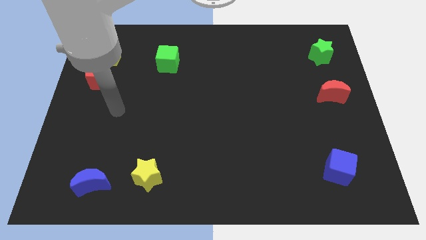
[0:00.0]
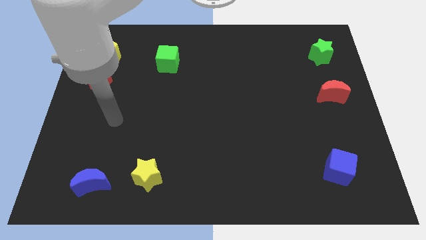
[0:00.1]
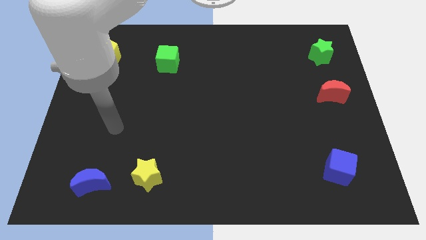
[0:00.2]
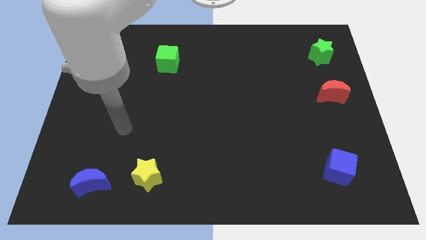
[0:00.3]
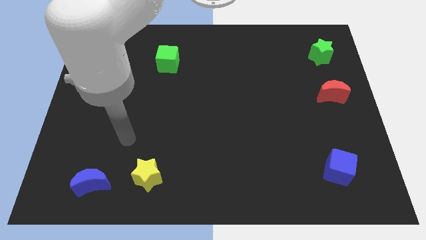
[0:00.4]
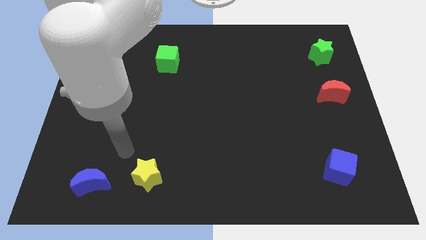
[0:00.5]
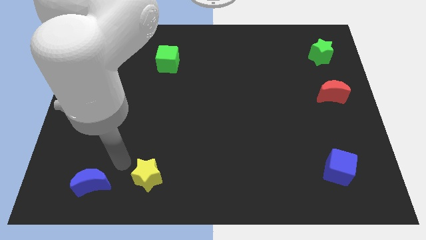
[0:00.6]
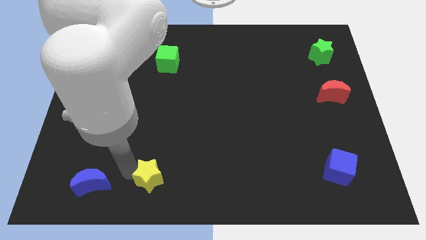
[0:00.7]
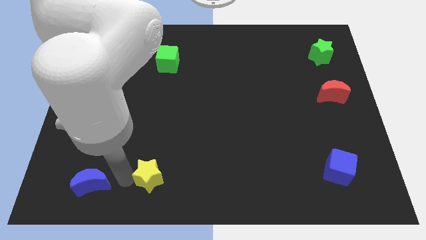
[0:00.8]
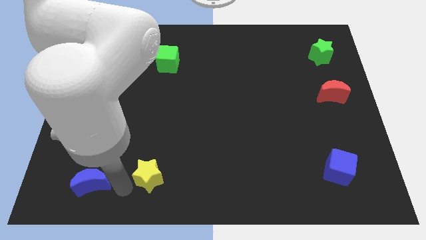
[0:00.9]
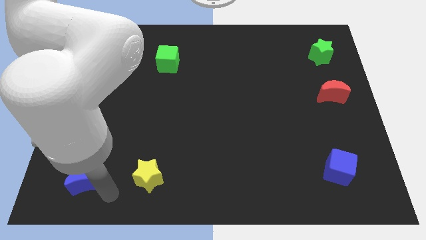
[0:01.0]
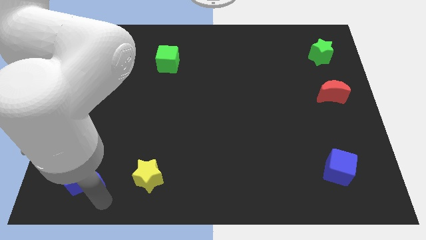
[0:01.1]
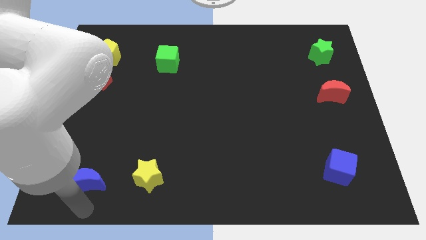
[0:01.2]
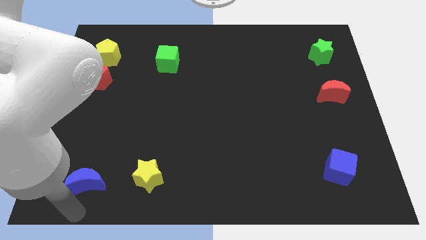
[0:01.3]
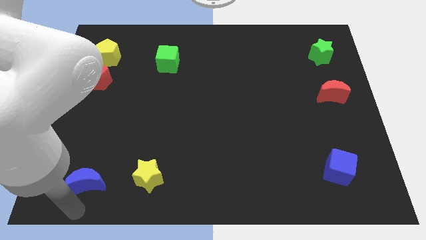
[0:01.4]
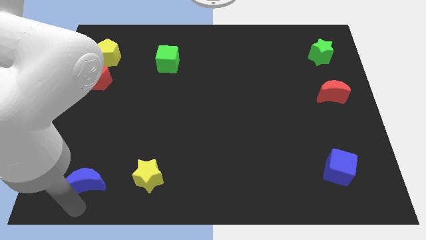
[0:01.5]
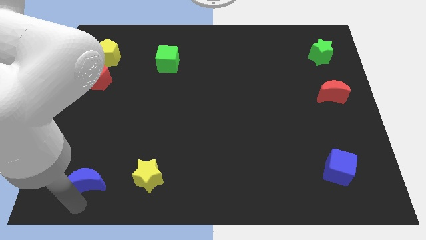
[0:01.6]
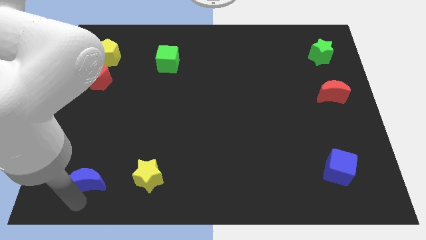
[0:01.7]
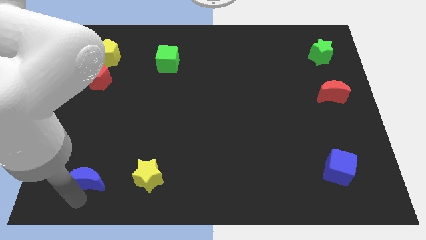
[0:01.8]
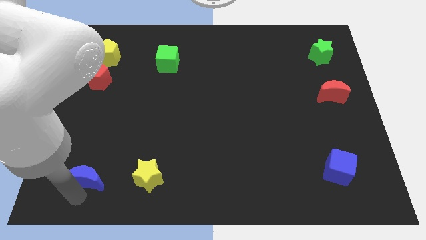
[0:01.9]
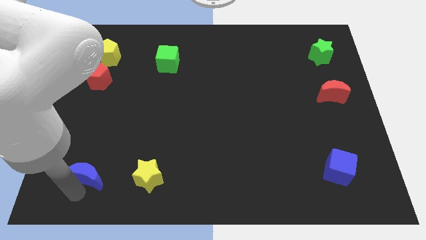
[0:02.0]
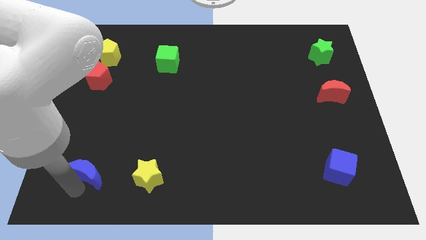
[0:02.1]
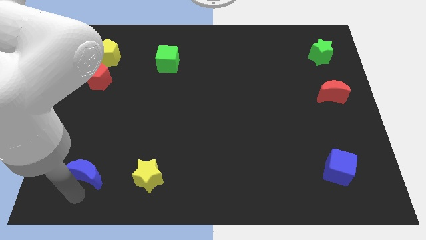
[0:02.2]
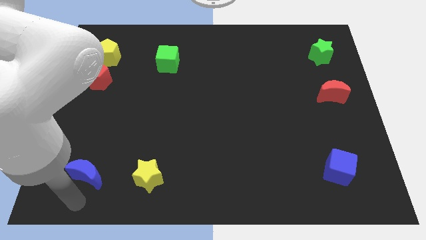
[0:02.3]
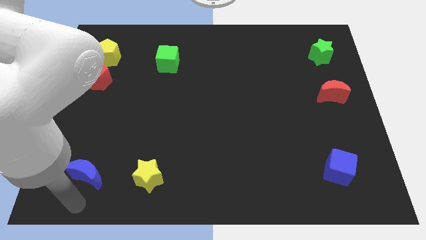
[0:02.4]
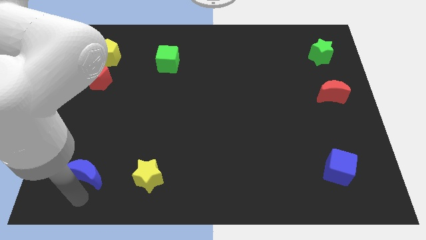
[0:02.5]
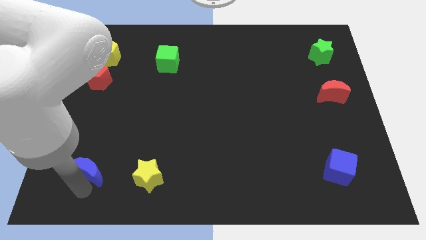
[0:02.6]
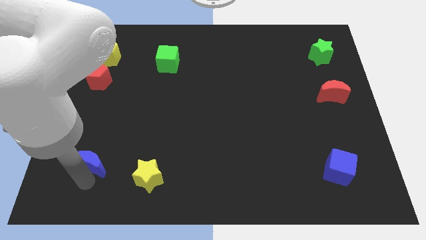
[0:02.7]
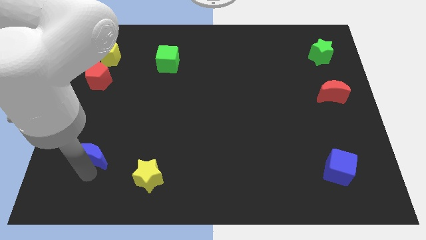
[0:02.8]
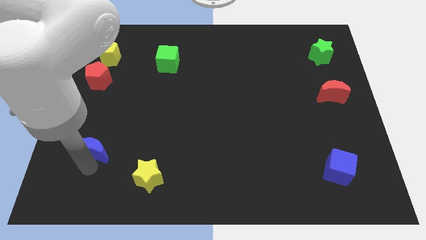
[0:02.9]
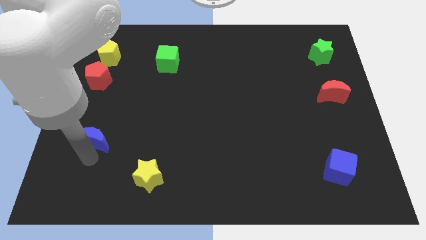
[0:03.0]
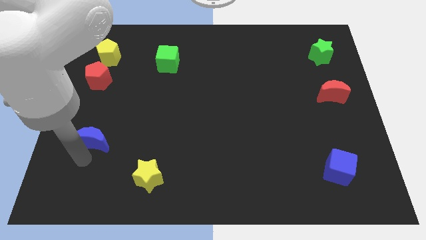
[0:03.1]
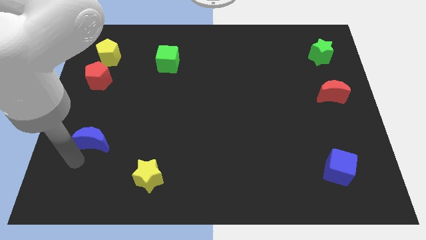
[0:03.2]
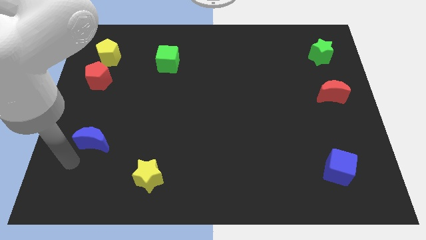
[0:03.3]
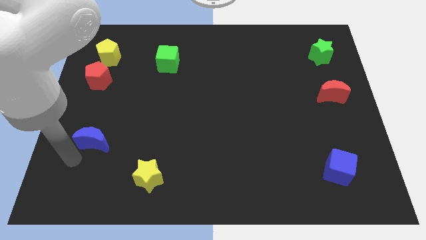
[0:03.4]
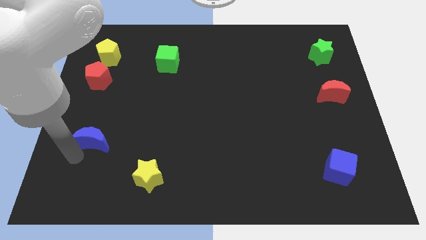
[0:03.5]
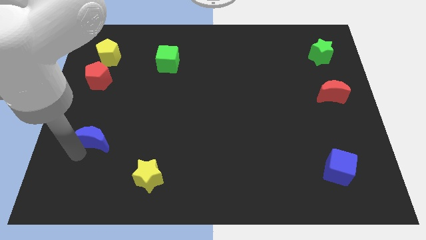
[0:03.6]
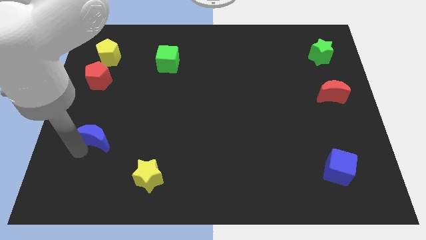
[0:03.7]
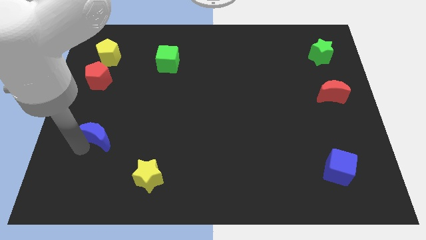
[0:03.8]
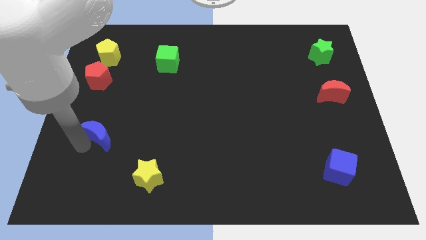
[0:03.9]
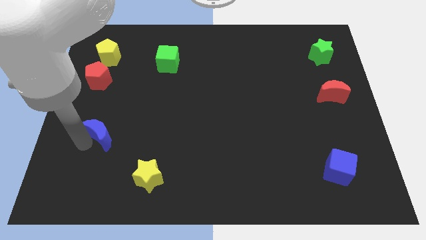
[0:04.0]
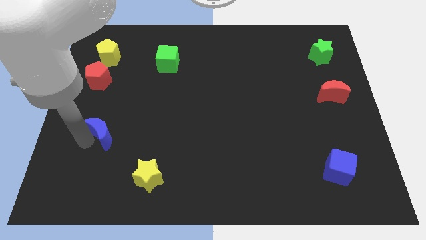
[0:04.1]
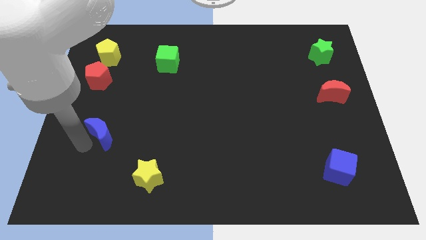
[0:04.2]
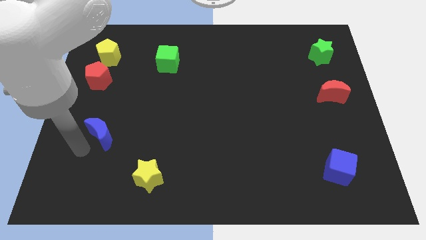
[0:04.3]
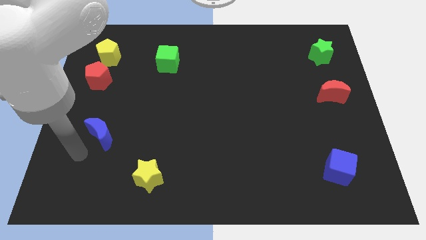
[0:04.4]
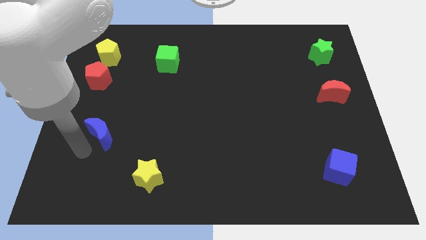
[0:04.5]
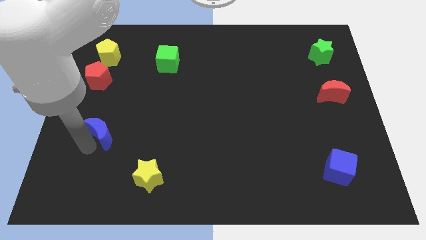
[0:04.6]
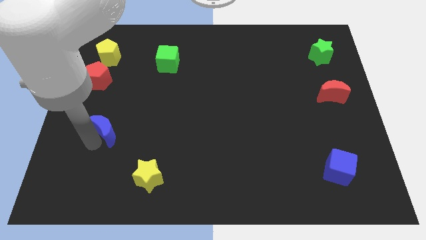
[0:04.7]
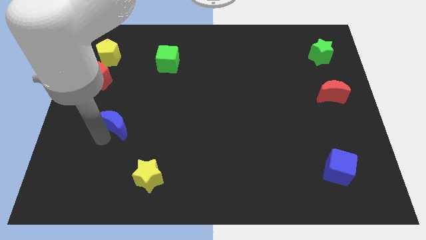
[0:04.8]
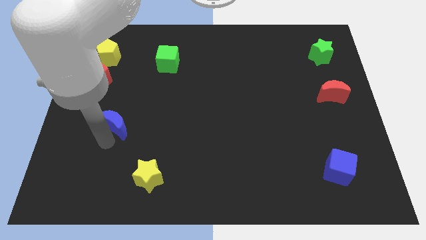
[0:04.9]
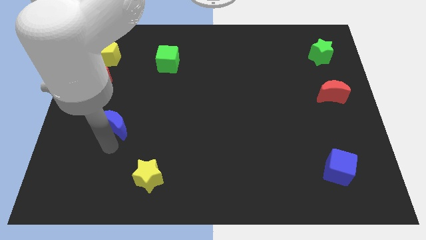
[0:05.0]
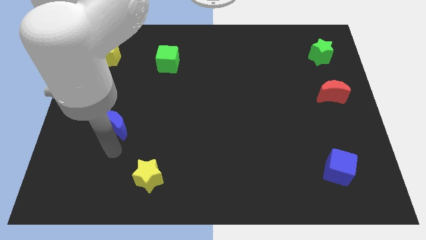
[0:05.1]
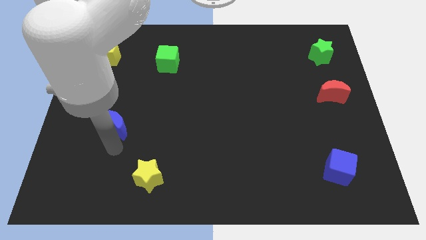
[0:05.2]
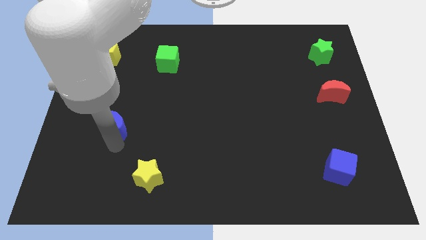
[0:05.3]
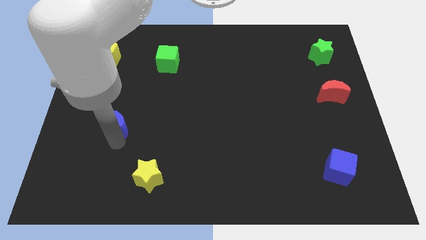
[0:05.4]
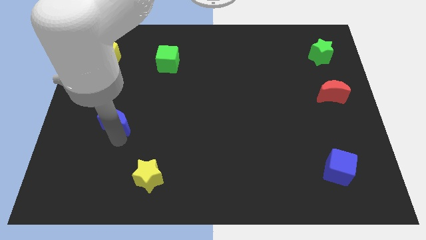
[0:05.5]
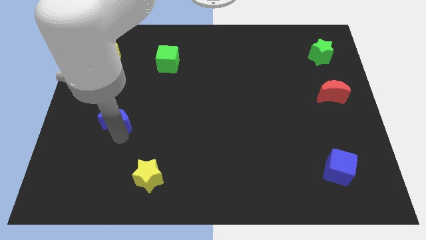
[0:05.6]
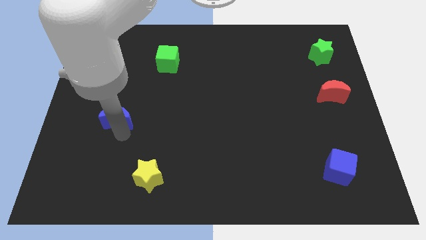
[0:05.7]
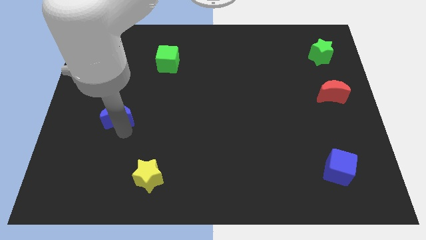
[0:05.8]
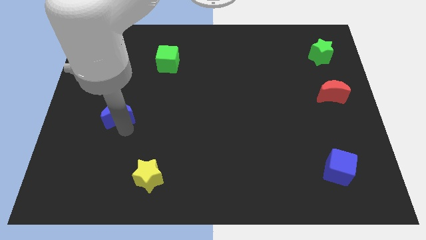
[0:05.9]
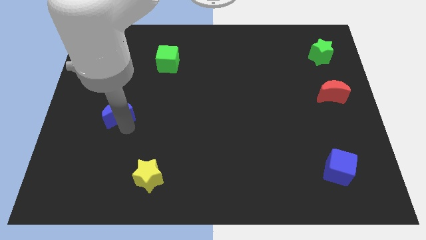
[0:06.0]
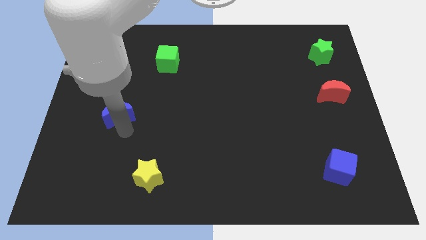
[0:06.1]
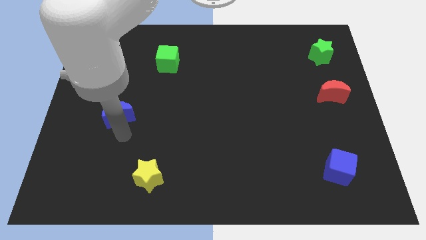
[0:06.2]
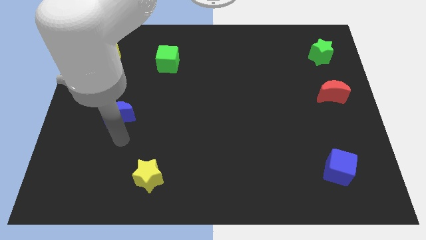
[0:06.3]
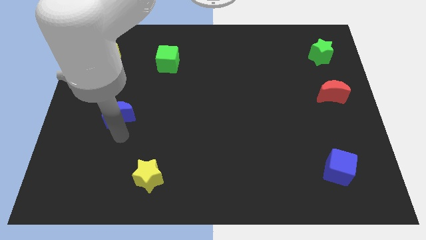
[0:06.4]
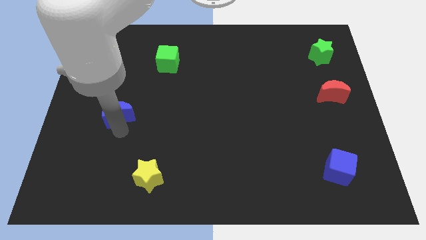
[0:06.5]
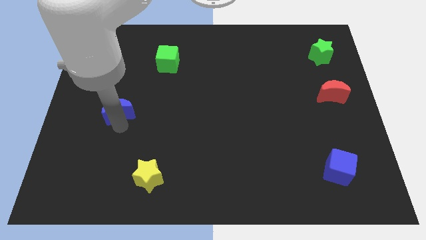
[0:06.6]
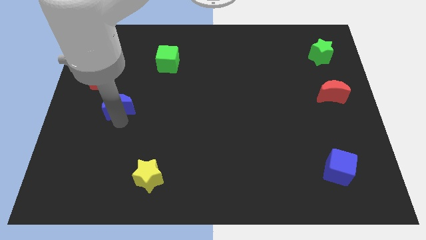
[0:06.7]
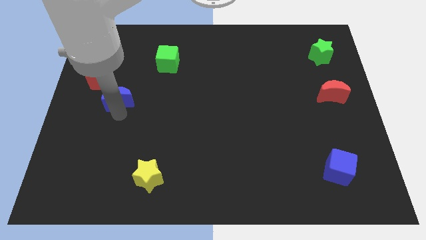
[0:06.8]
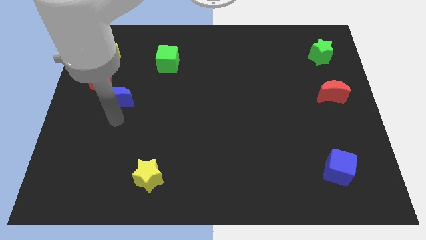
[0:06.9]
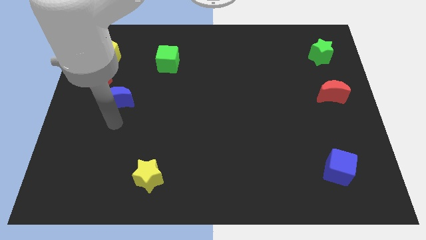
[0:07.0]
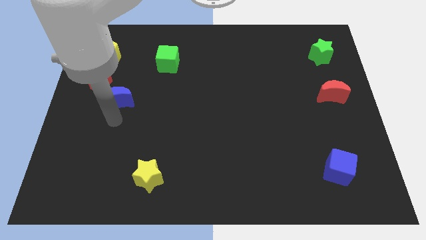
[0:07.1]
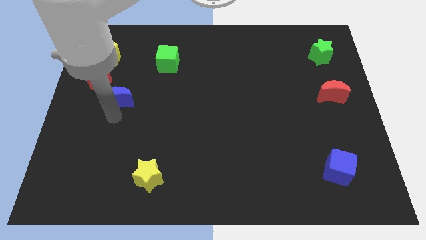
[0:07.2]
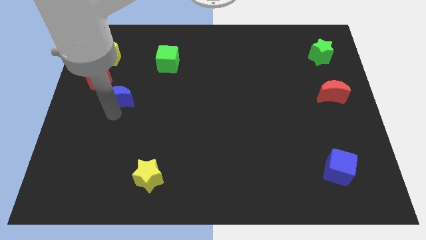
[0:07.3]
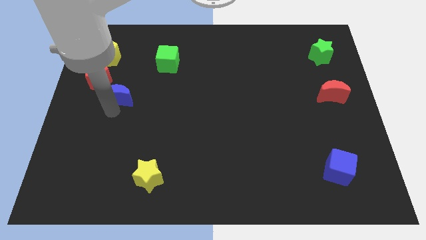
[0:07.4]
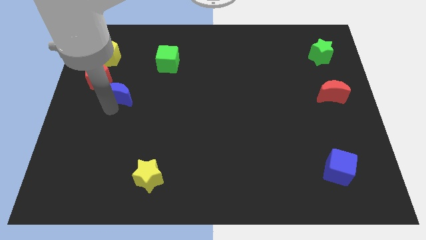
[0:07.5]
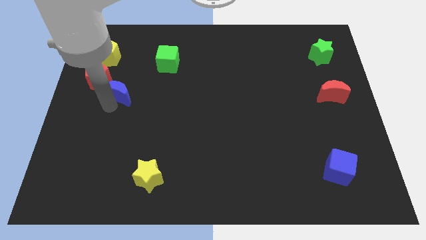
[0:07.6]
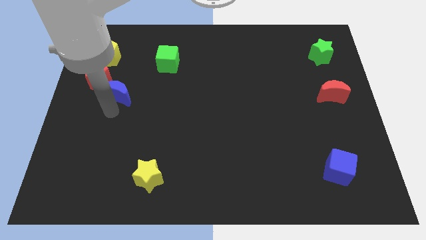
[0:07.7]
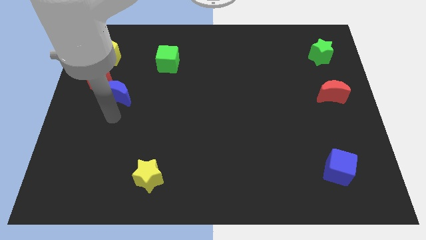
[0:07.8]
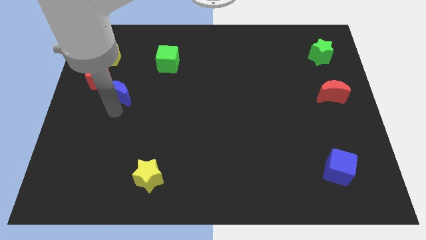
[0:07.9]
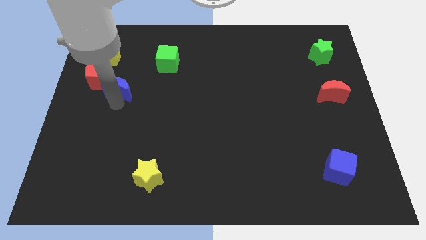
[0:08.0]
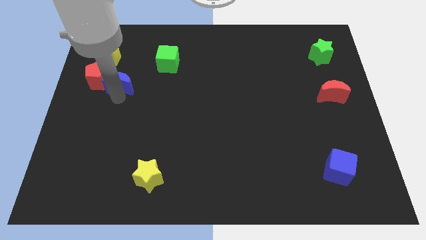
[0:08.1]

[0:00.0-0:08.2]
move the blue moon to the bottom right side of the yellow pentagon

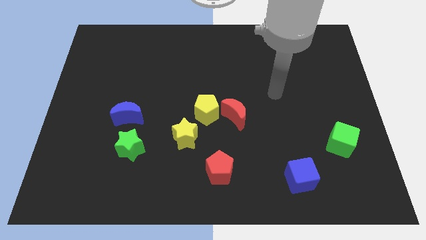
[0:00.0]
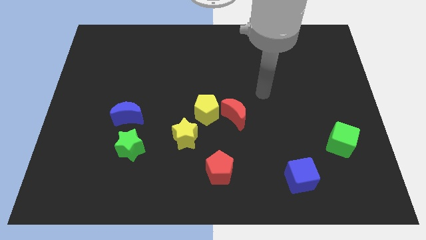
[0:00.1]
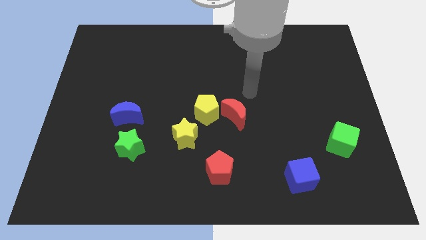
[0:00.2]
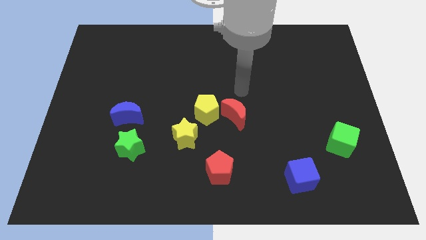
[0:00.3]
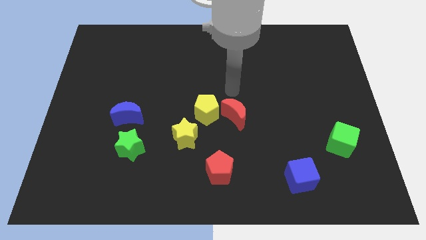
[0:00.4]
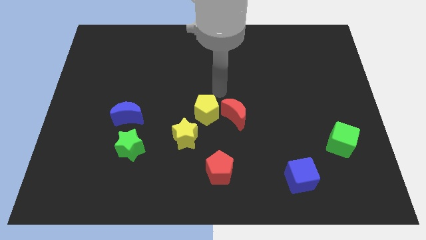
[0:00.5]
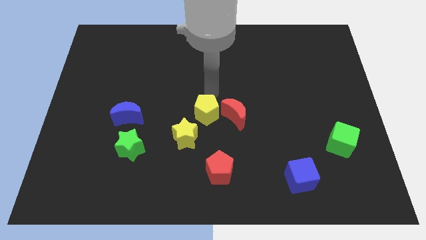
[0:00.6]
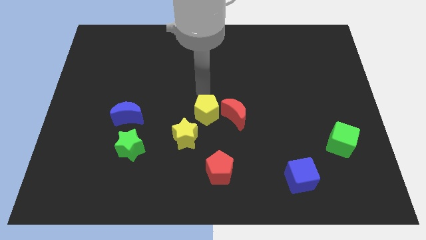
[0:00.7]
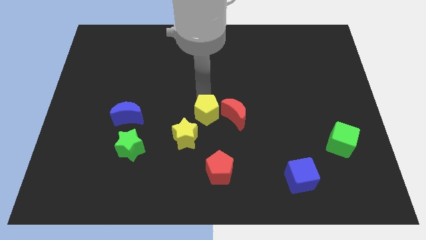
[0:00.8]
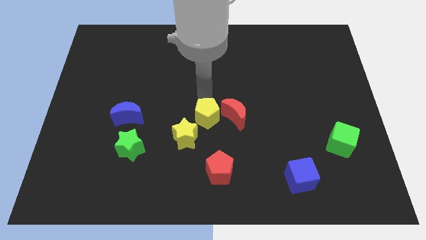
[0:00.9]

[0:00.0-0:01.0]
move the yellow pentagon diagonally down and to the left of the red moon
